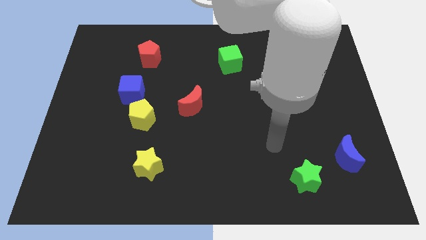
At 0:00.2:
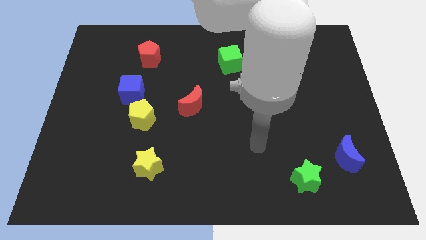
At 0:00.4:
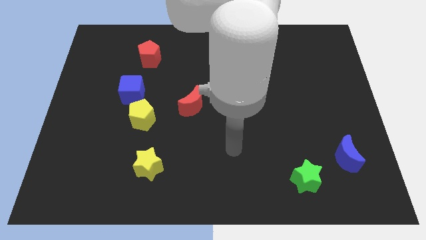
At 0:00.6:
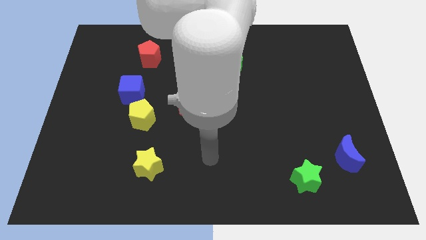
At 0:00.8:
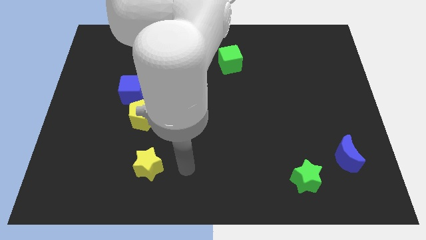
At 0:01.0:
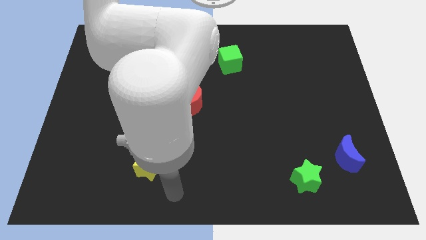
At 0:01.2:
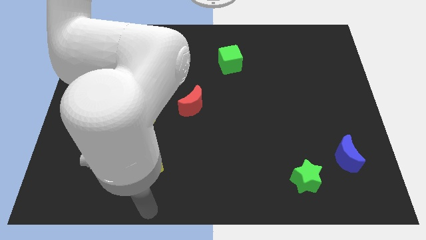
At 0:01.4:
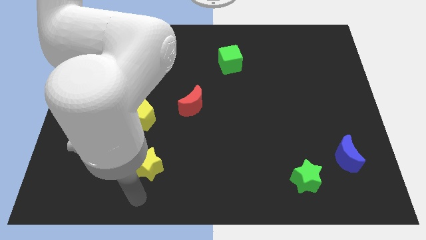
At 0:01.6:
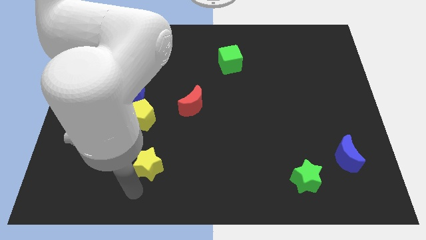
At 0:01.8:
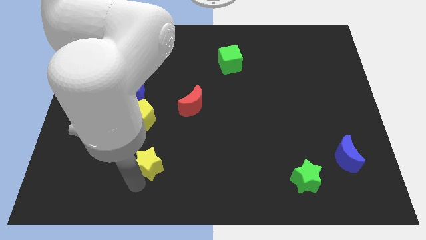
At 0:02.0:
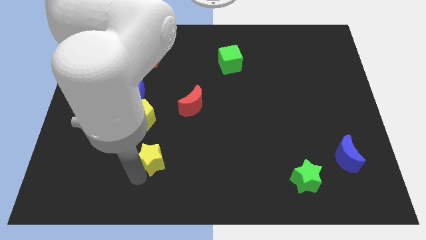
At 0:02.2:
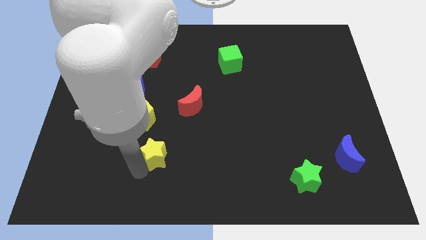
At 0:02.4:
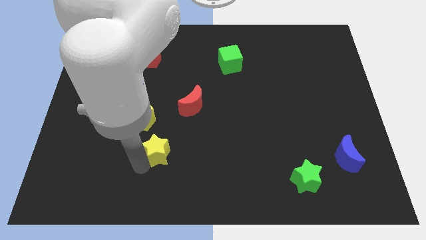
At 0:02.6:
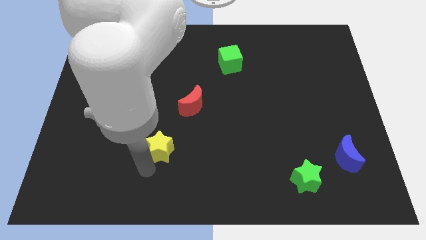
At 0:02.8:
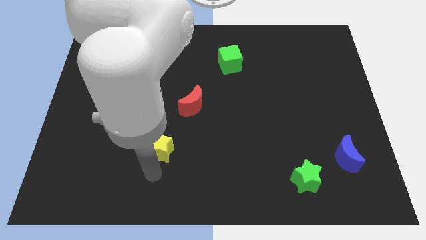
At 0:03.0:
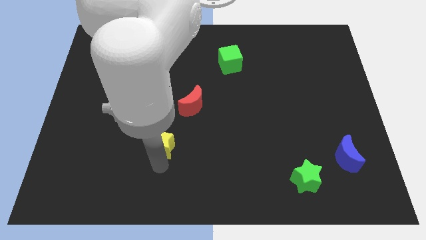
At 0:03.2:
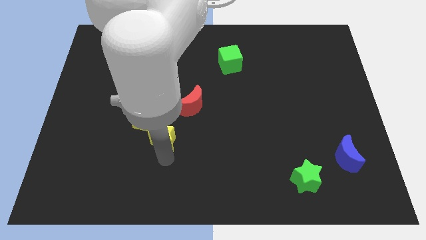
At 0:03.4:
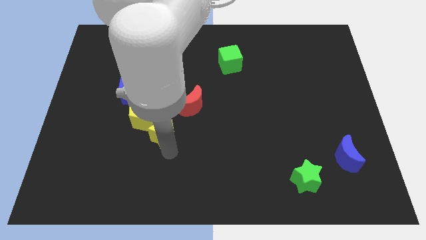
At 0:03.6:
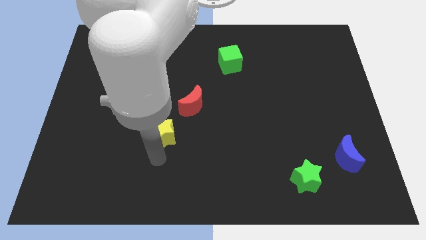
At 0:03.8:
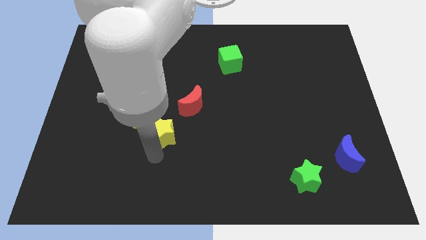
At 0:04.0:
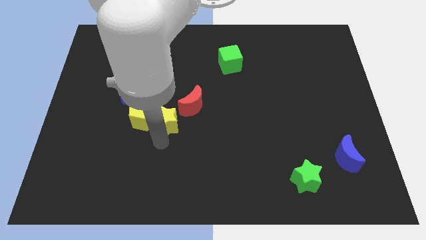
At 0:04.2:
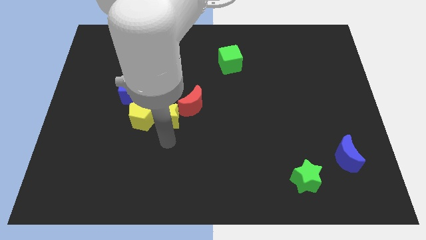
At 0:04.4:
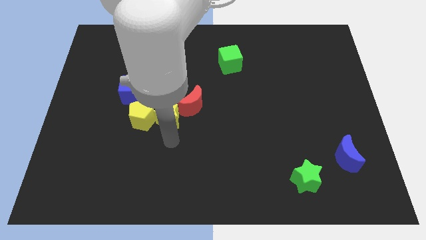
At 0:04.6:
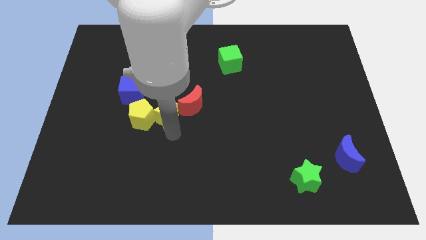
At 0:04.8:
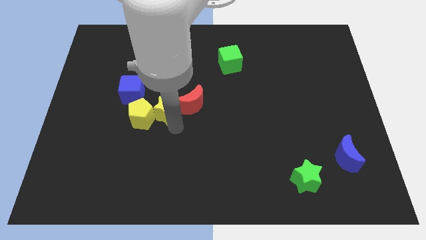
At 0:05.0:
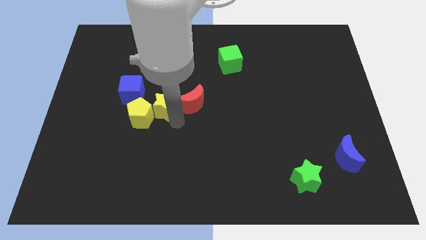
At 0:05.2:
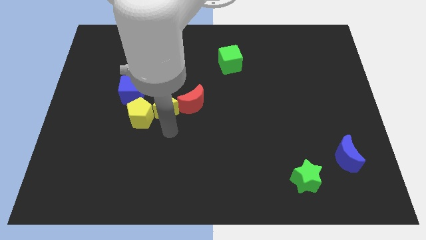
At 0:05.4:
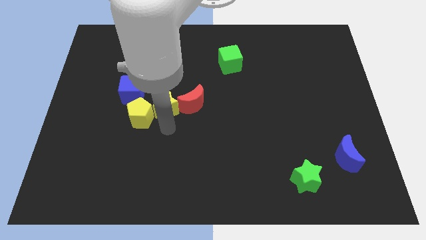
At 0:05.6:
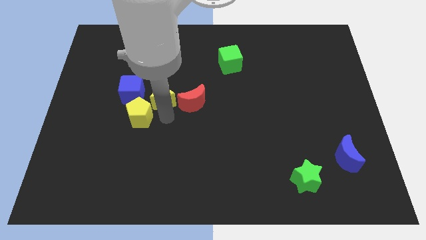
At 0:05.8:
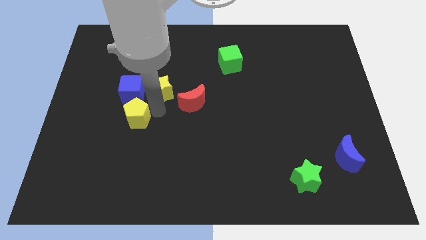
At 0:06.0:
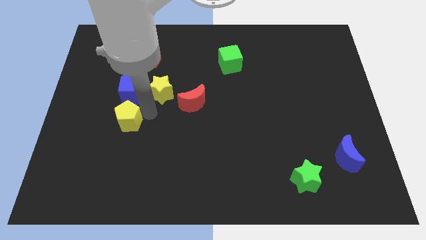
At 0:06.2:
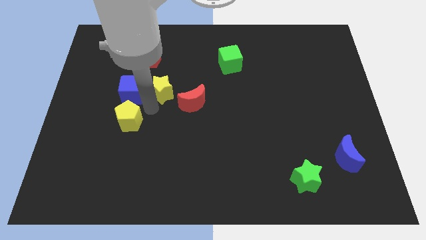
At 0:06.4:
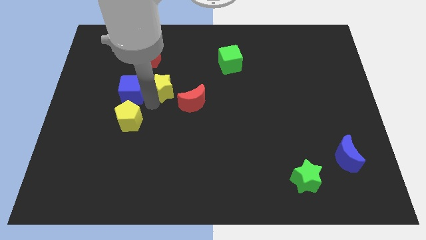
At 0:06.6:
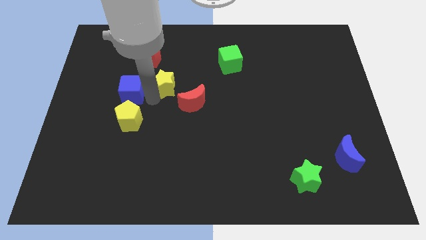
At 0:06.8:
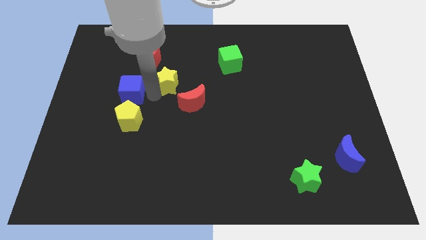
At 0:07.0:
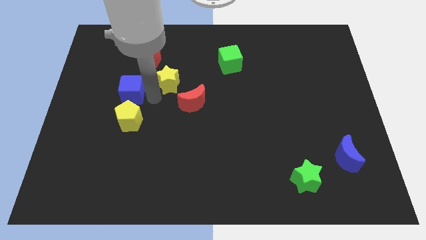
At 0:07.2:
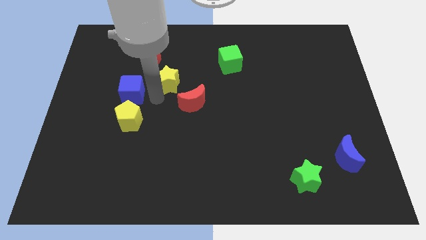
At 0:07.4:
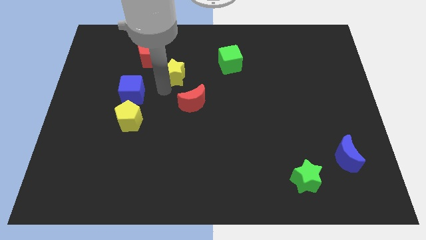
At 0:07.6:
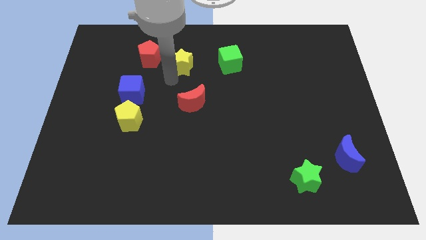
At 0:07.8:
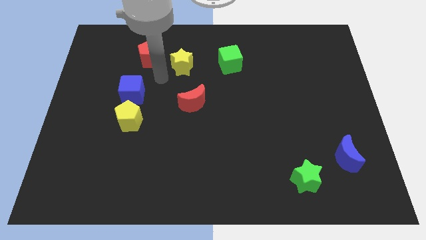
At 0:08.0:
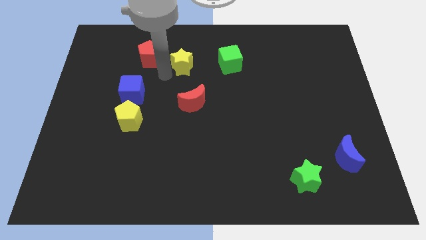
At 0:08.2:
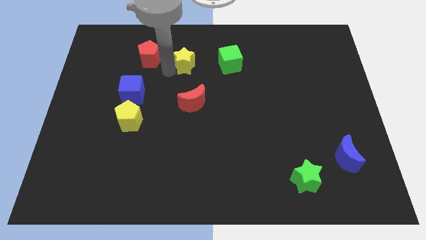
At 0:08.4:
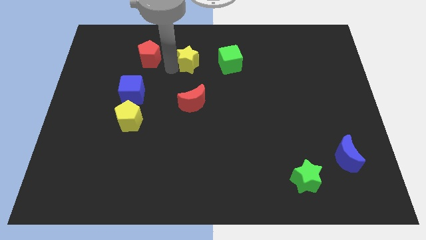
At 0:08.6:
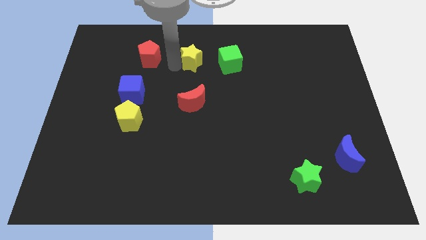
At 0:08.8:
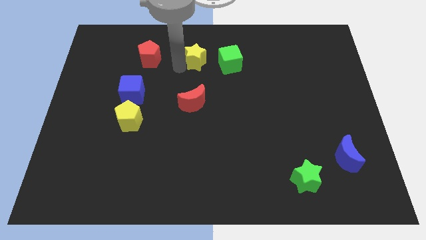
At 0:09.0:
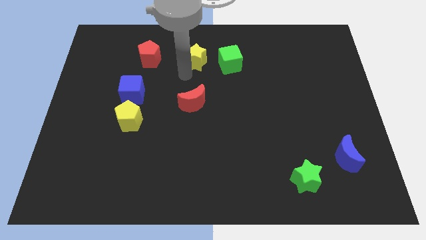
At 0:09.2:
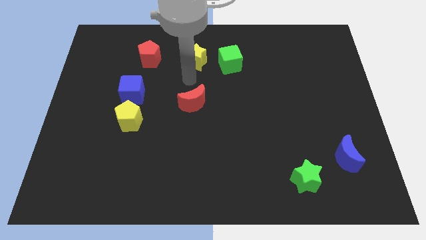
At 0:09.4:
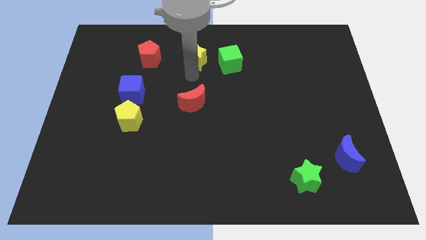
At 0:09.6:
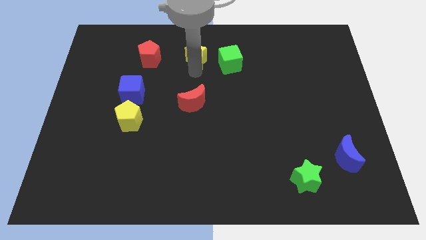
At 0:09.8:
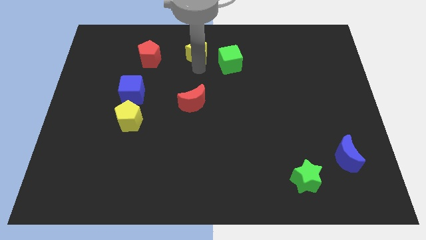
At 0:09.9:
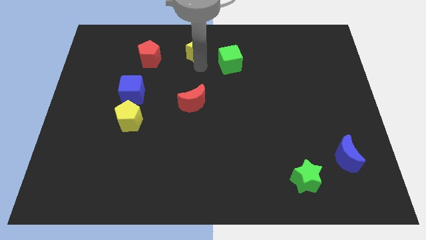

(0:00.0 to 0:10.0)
move the yellow star to the top side

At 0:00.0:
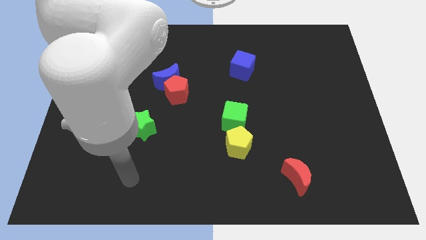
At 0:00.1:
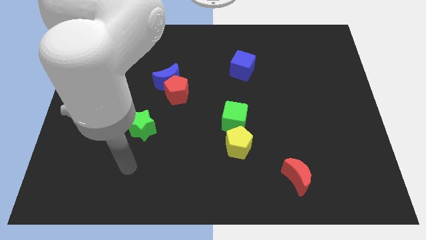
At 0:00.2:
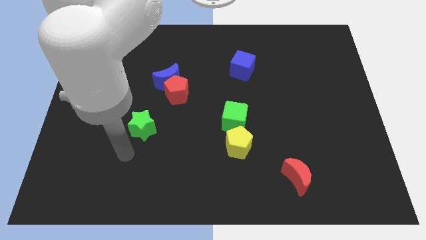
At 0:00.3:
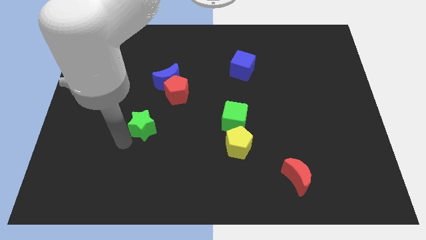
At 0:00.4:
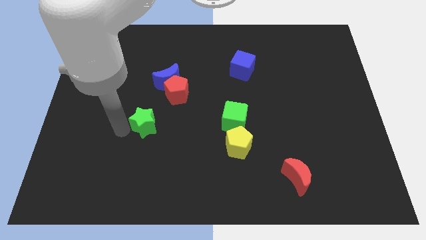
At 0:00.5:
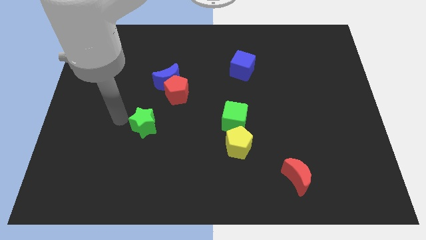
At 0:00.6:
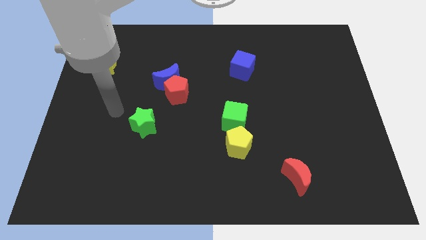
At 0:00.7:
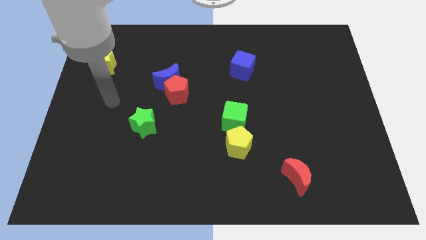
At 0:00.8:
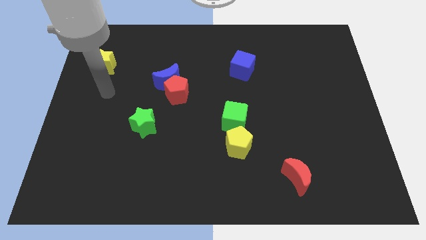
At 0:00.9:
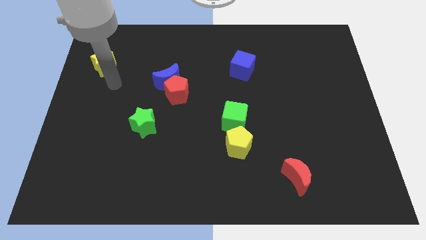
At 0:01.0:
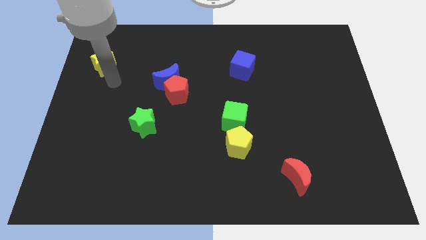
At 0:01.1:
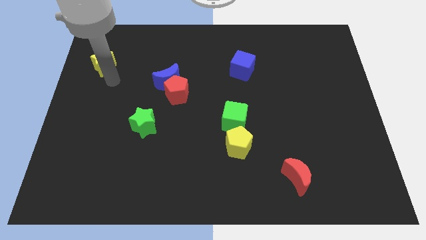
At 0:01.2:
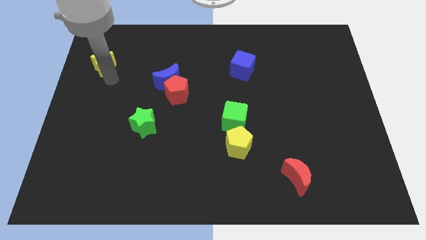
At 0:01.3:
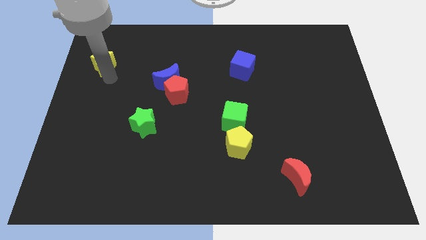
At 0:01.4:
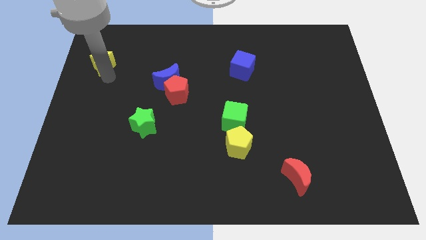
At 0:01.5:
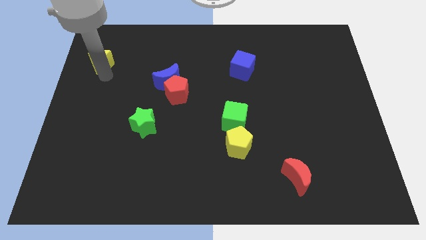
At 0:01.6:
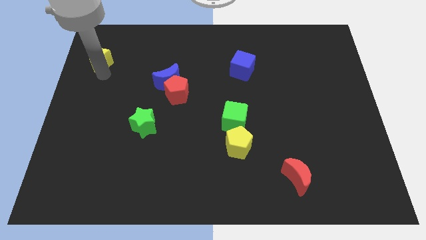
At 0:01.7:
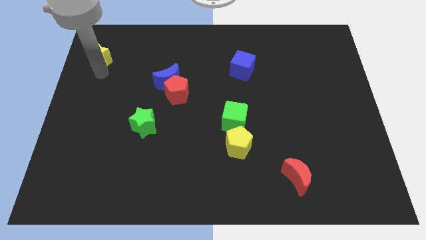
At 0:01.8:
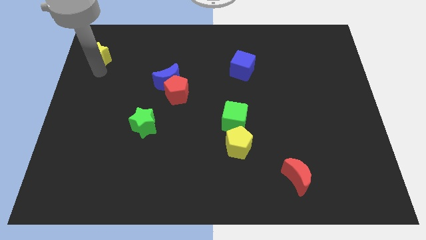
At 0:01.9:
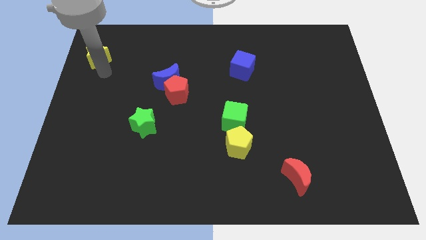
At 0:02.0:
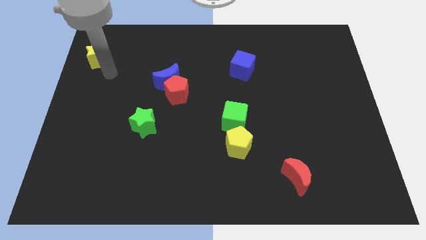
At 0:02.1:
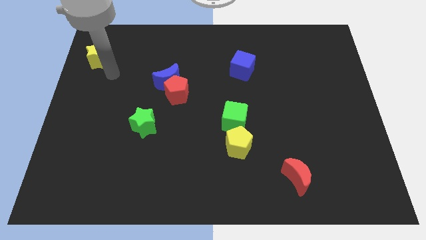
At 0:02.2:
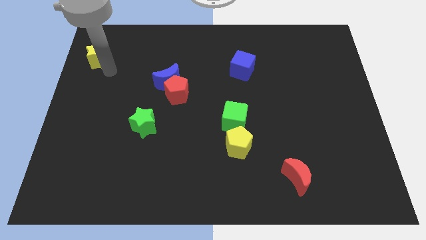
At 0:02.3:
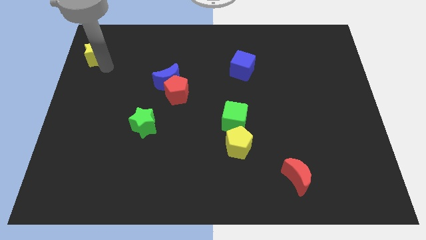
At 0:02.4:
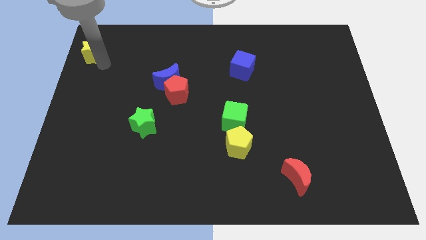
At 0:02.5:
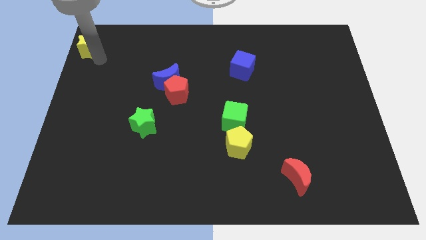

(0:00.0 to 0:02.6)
put the yellow star to the upper left corner
